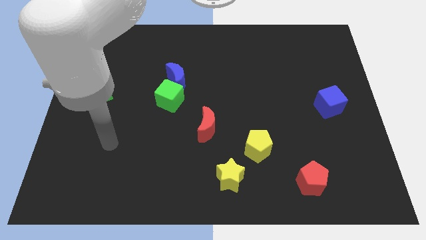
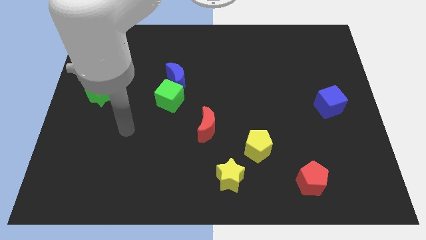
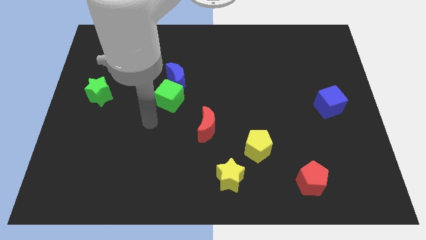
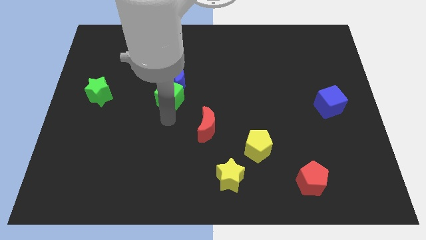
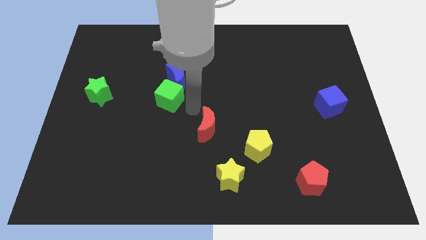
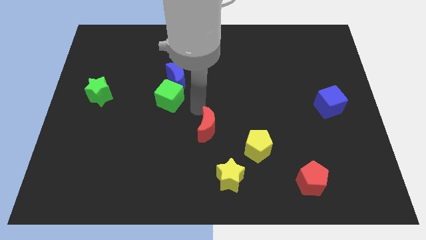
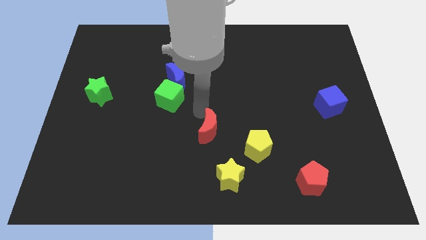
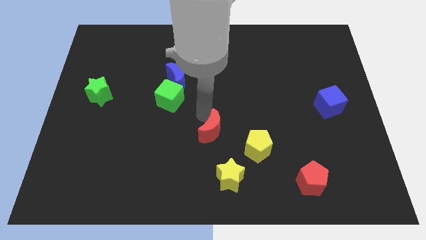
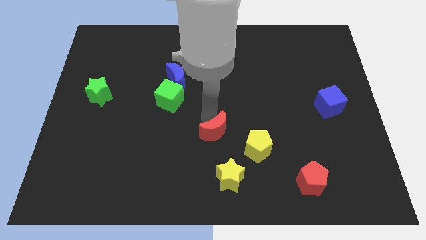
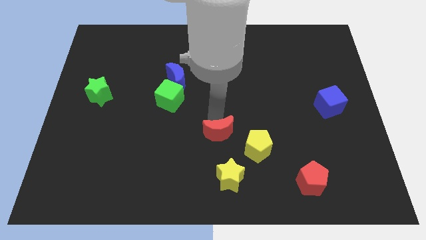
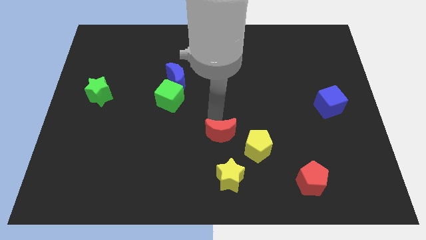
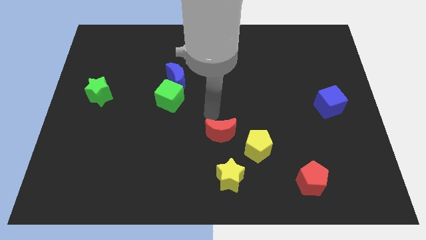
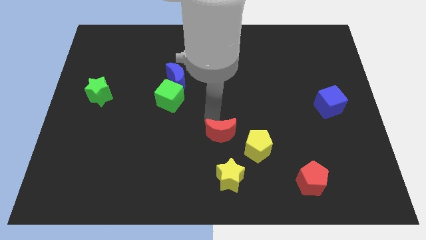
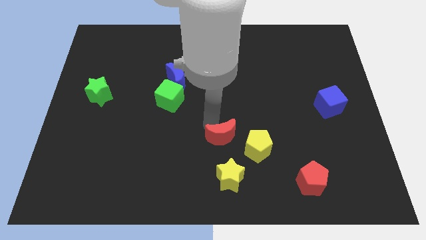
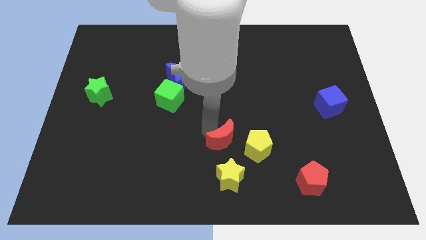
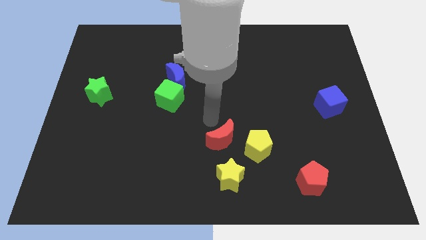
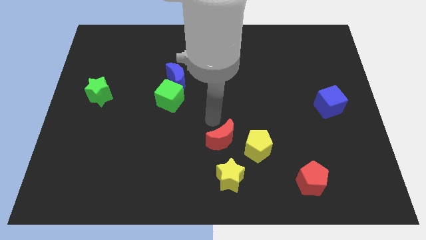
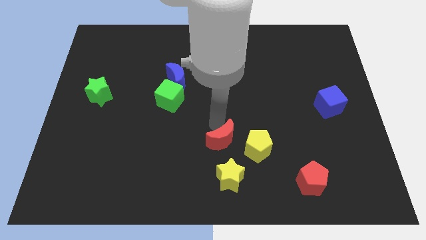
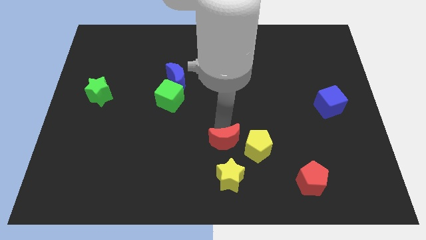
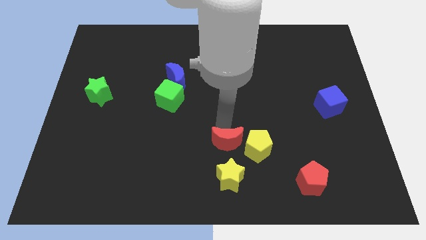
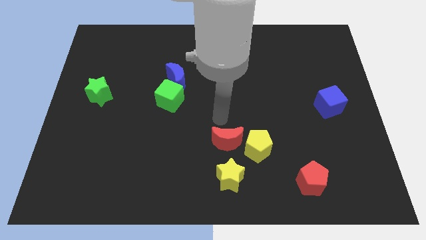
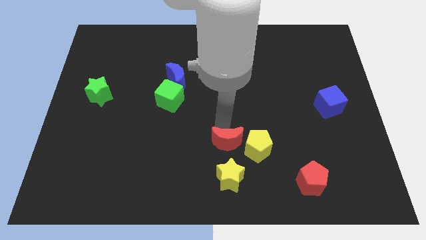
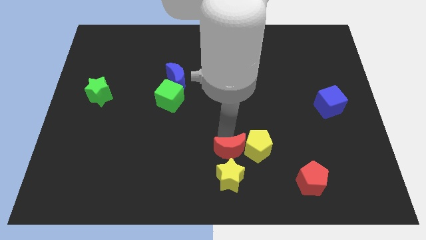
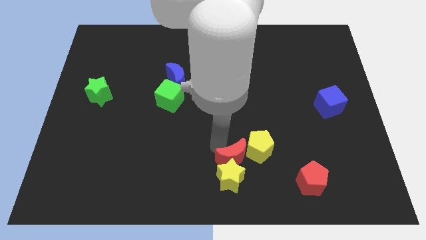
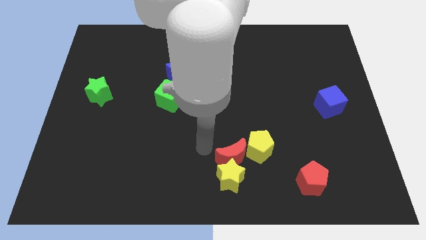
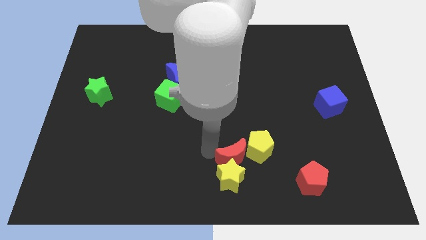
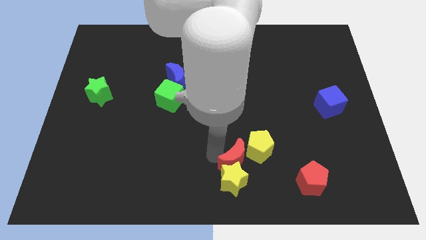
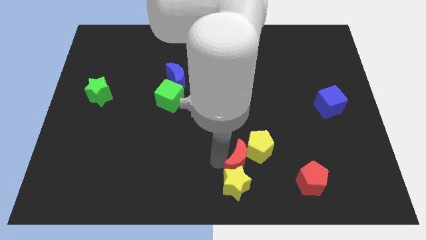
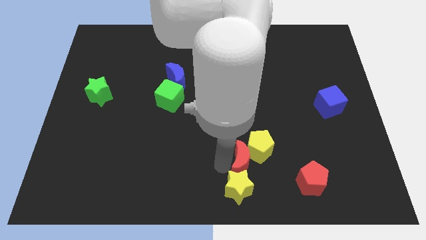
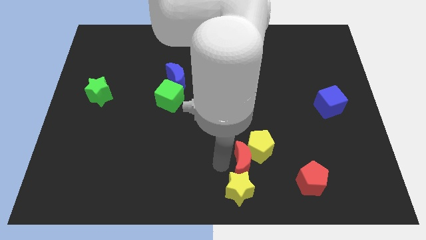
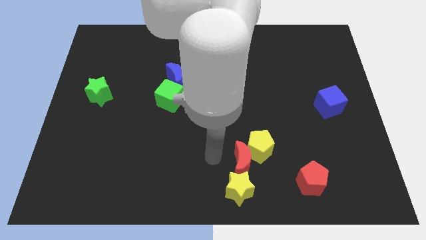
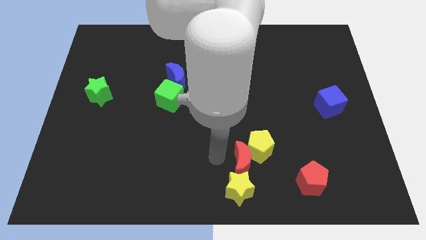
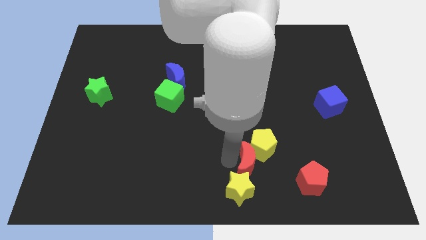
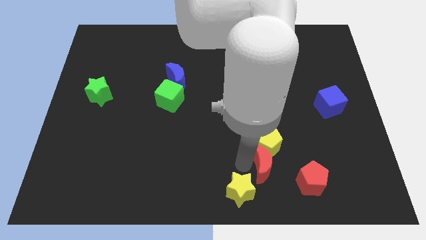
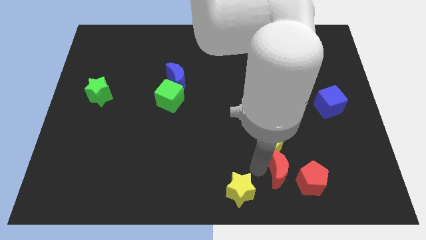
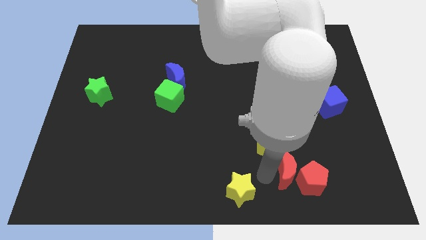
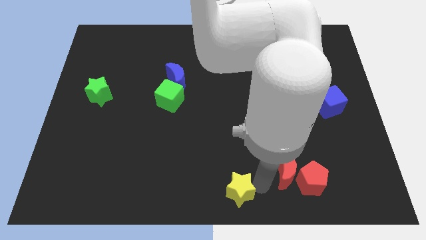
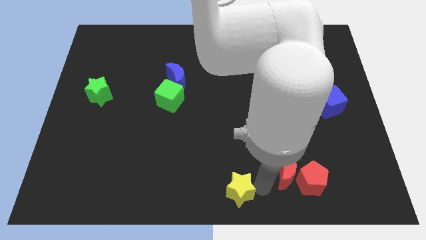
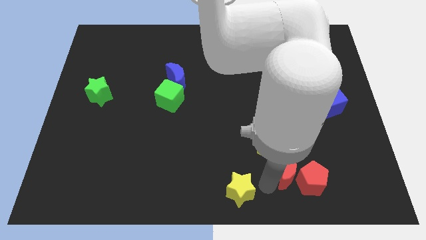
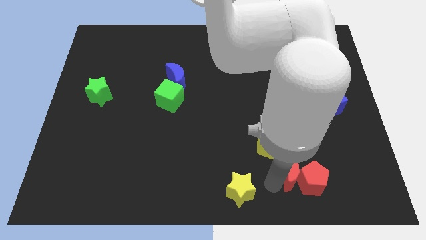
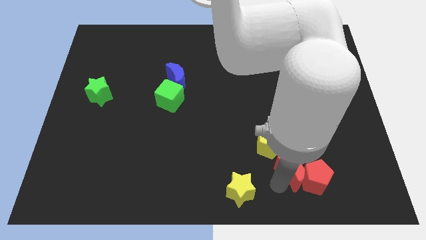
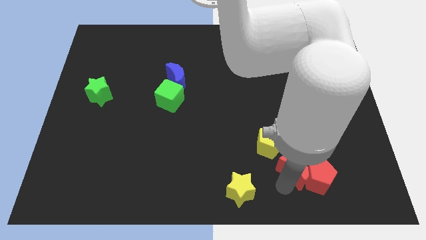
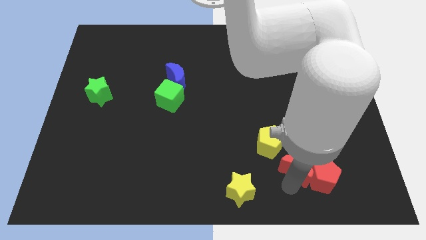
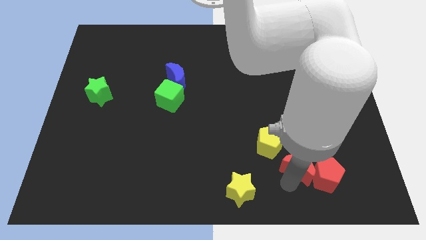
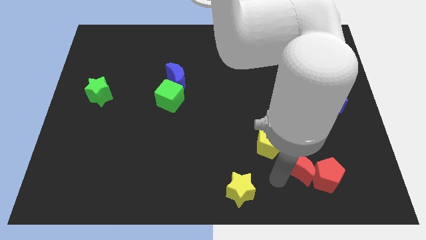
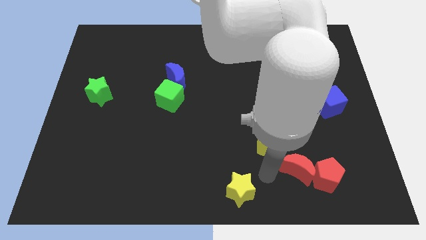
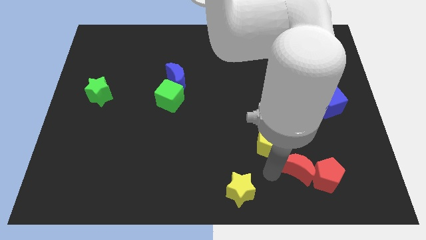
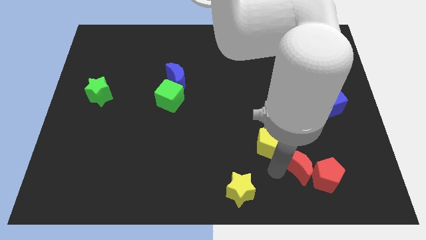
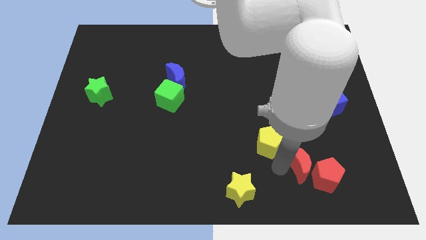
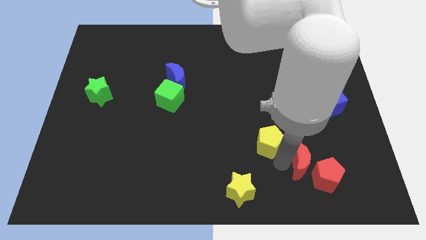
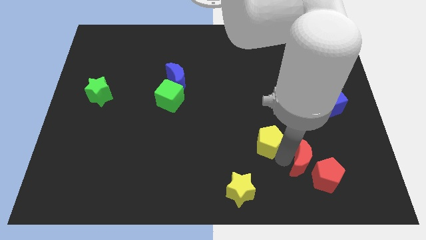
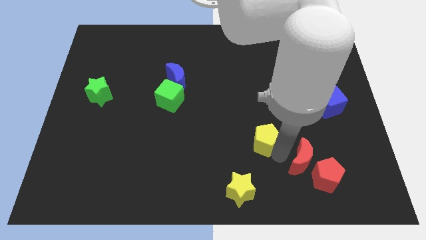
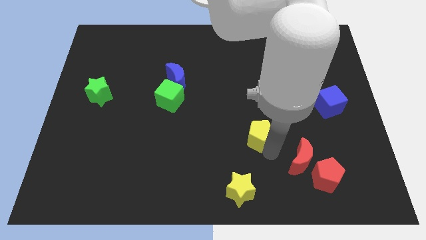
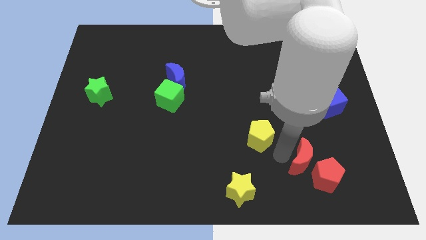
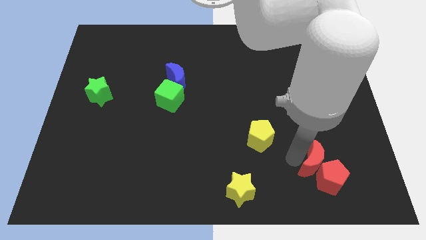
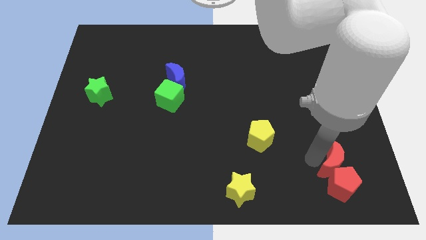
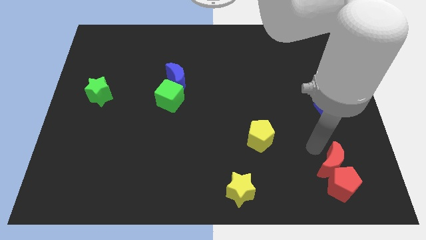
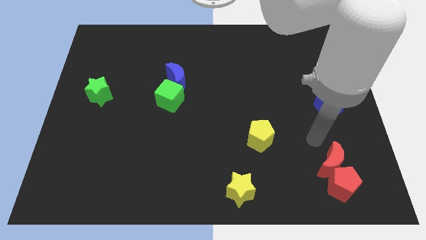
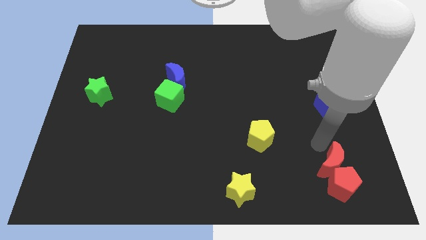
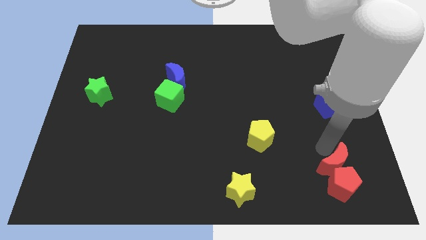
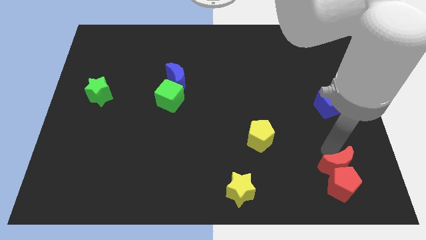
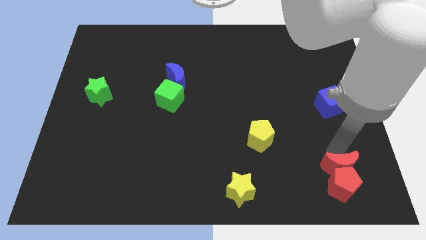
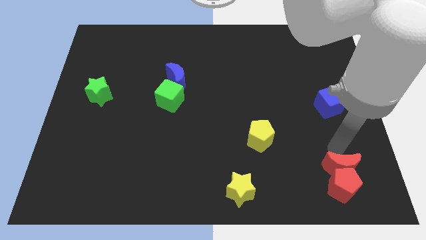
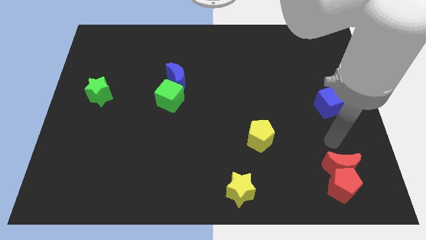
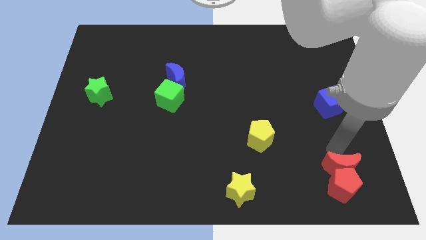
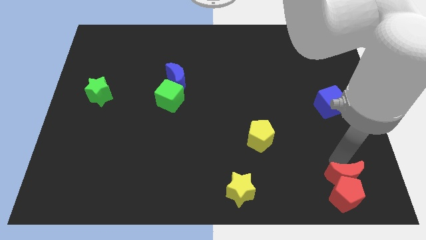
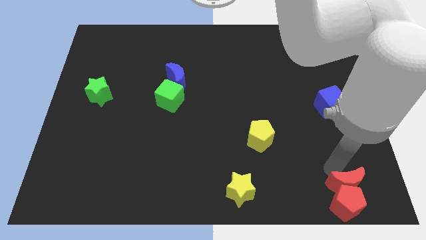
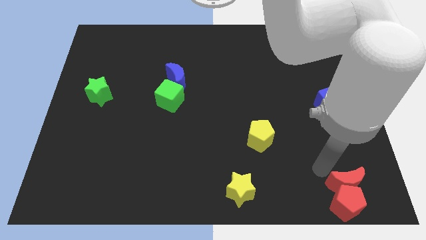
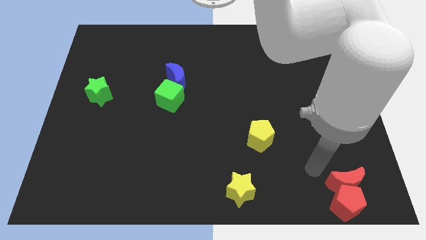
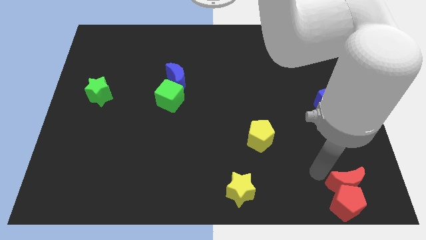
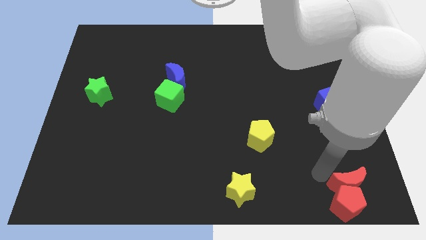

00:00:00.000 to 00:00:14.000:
move the red moon to the bottom right
